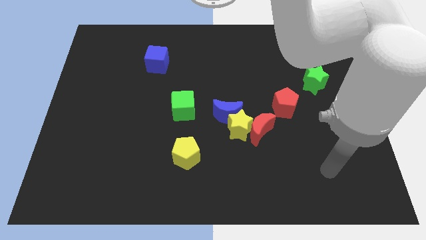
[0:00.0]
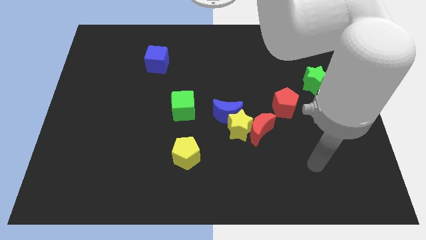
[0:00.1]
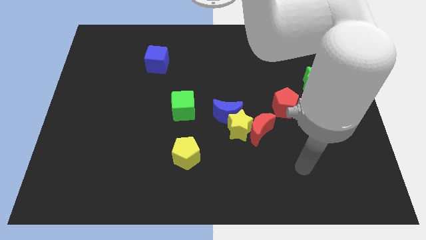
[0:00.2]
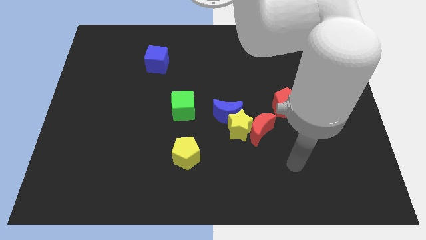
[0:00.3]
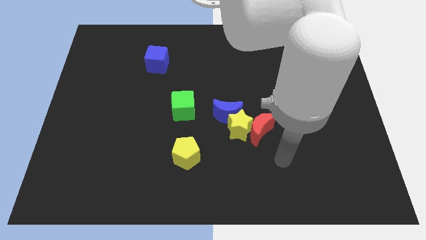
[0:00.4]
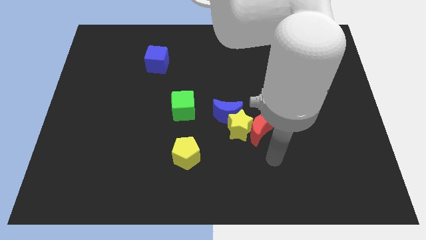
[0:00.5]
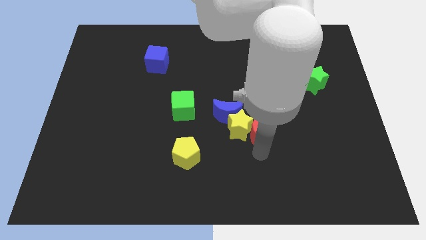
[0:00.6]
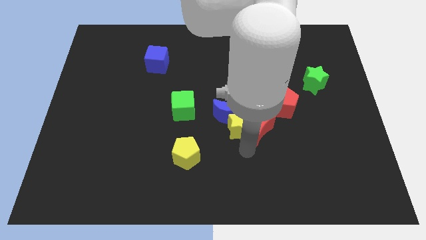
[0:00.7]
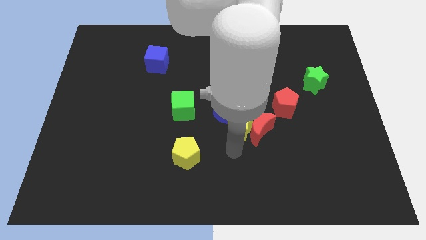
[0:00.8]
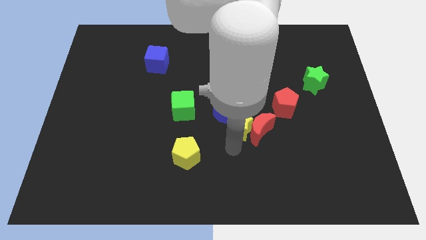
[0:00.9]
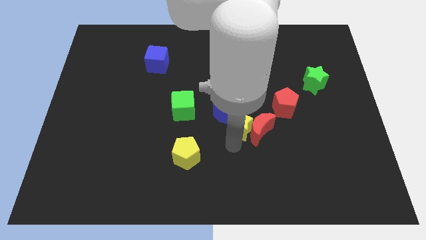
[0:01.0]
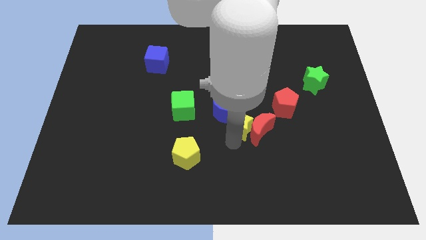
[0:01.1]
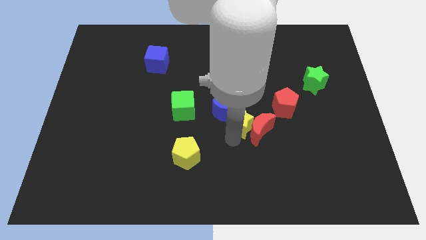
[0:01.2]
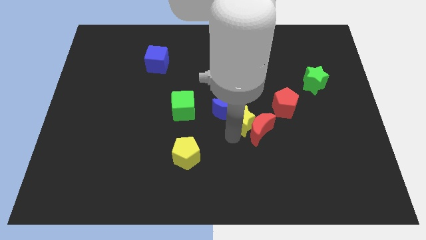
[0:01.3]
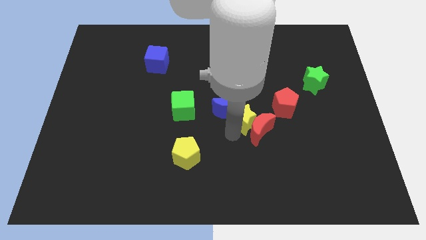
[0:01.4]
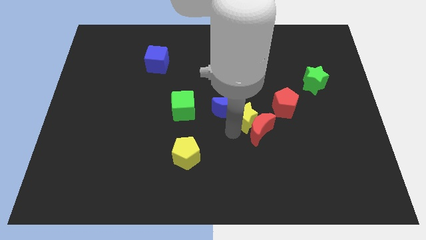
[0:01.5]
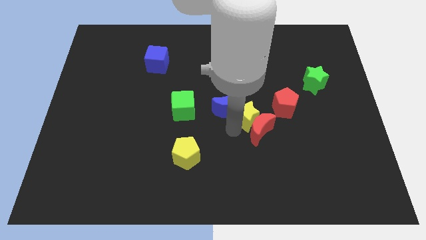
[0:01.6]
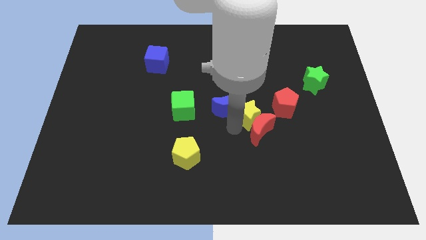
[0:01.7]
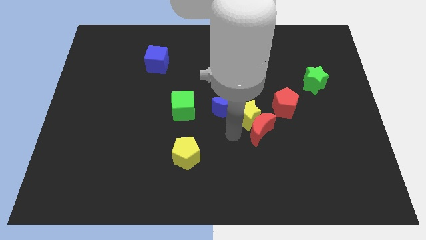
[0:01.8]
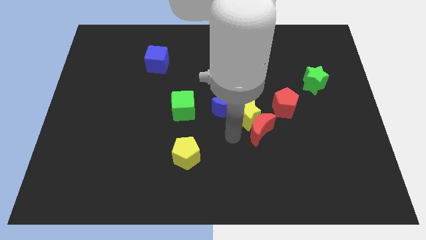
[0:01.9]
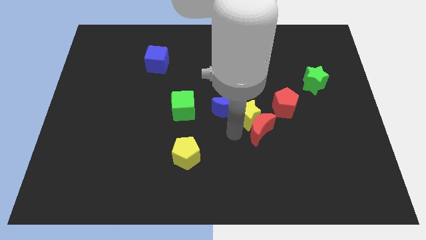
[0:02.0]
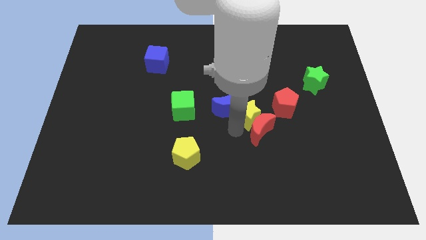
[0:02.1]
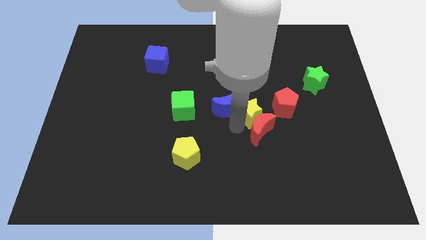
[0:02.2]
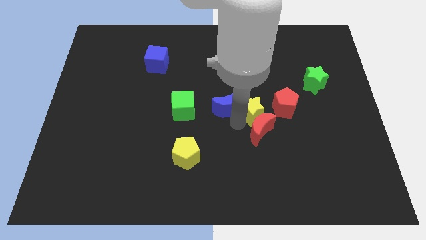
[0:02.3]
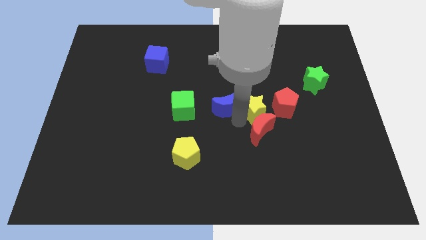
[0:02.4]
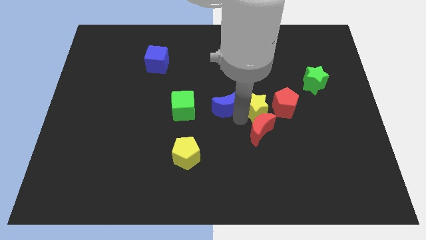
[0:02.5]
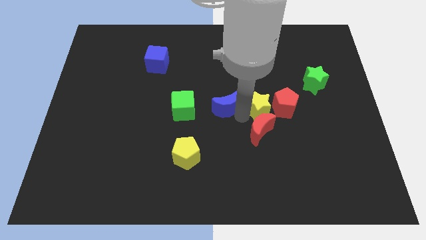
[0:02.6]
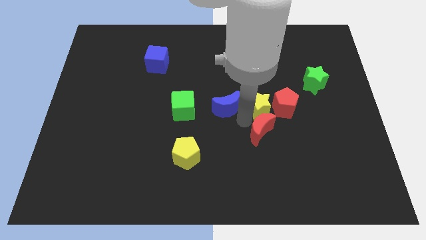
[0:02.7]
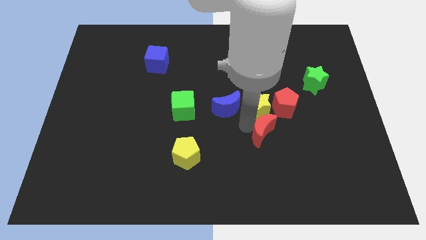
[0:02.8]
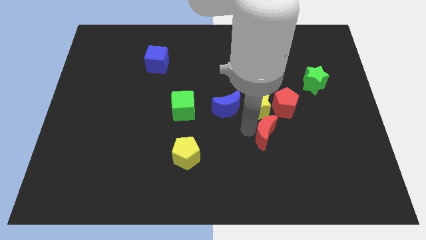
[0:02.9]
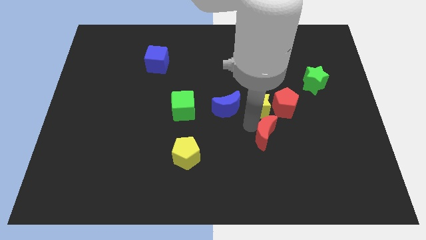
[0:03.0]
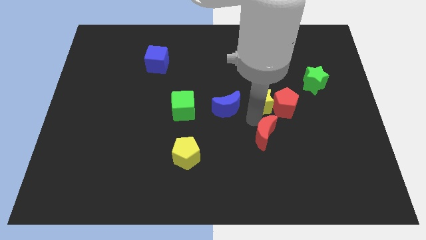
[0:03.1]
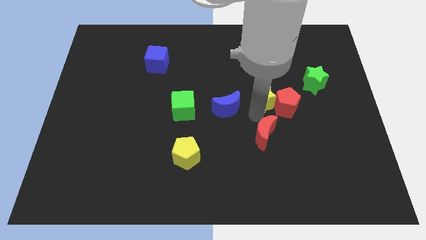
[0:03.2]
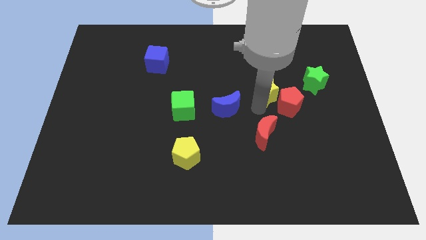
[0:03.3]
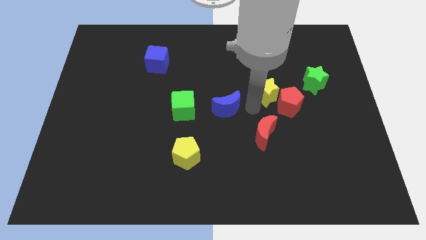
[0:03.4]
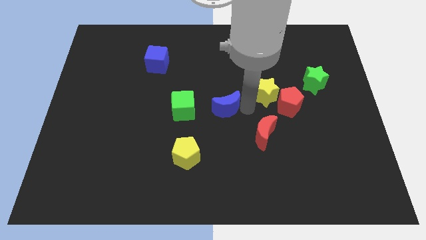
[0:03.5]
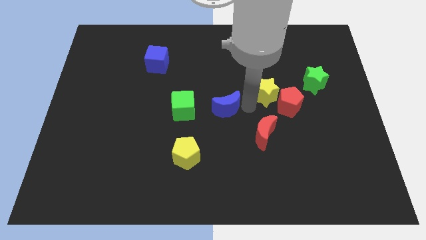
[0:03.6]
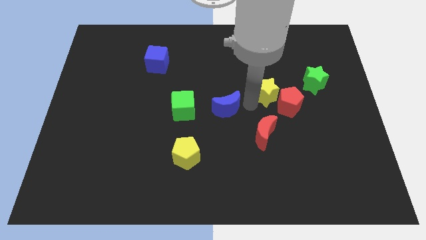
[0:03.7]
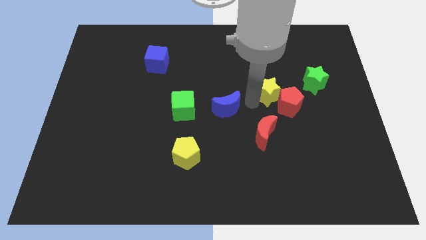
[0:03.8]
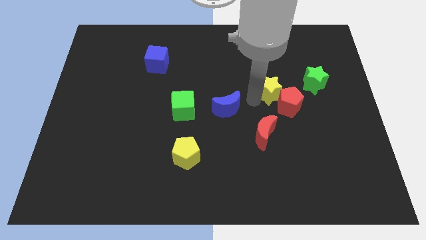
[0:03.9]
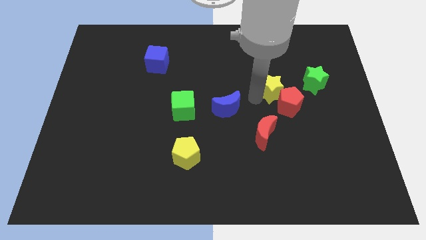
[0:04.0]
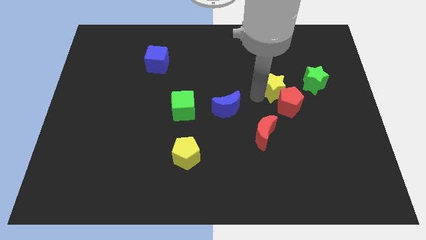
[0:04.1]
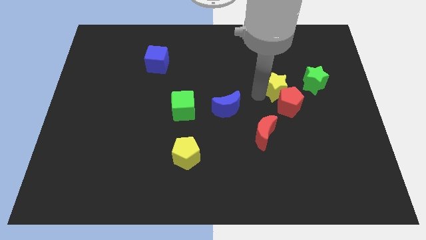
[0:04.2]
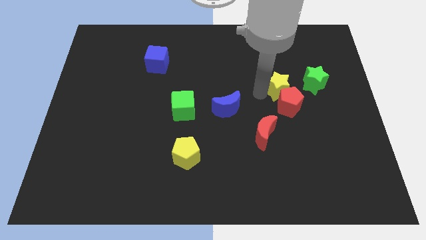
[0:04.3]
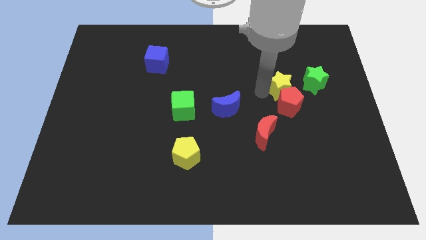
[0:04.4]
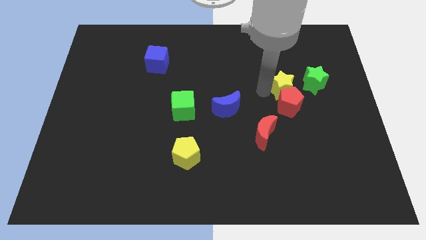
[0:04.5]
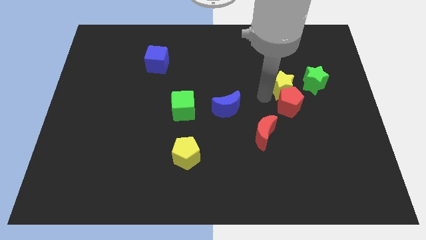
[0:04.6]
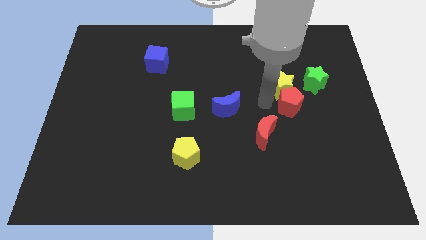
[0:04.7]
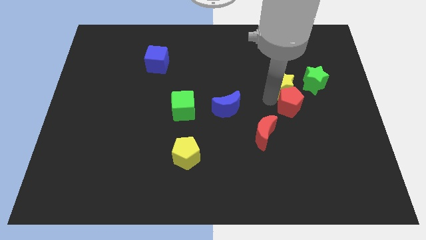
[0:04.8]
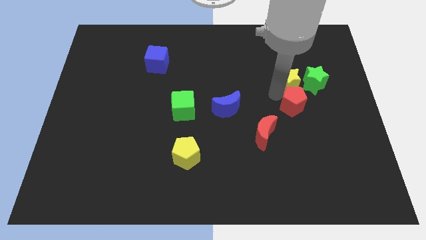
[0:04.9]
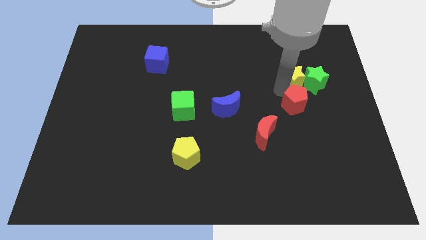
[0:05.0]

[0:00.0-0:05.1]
push the yellow star upwards and to the right

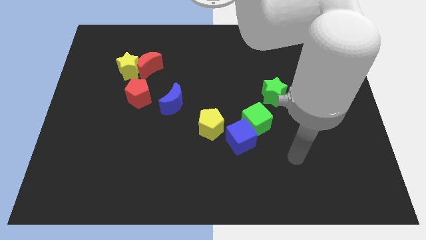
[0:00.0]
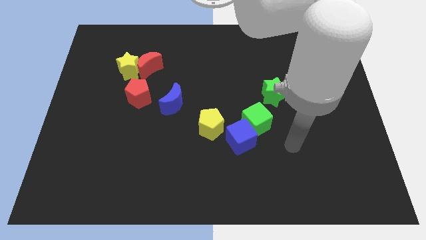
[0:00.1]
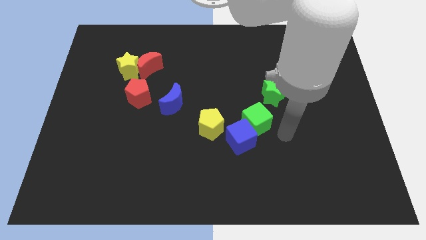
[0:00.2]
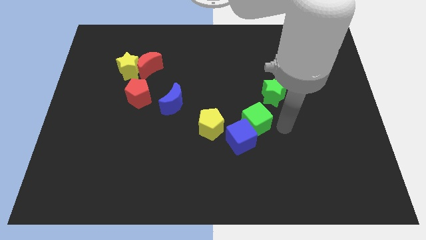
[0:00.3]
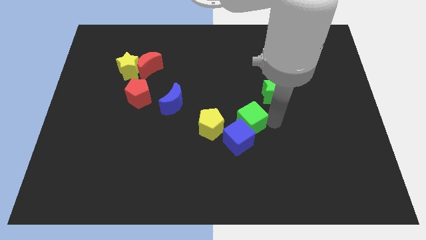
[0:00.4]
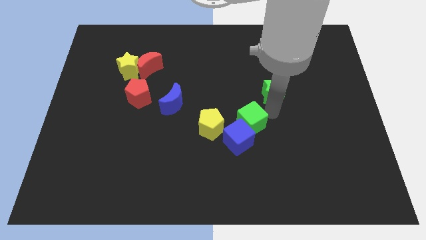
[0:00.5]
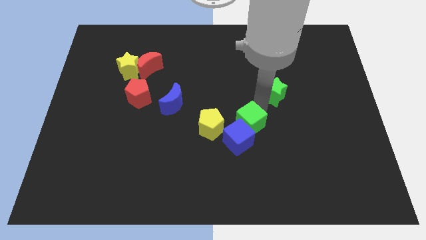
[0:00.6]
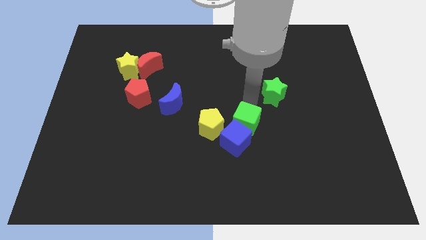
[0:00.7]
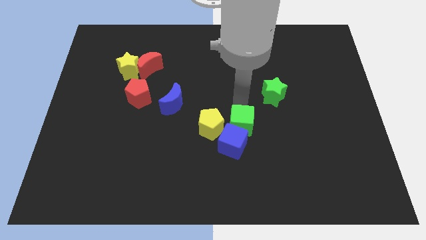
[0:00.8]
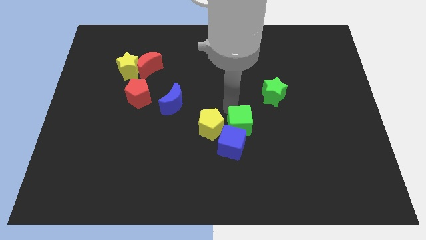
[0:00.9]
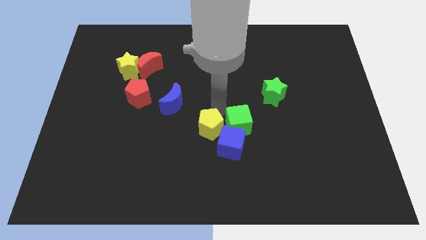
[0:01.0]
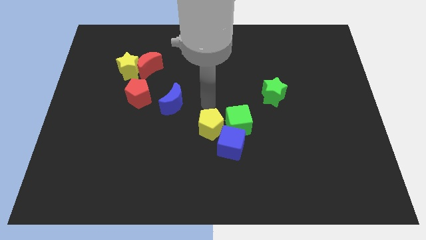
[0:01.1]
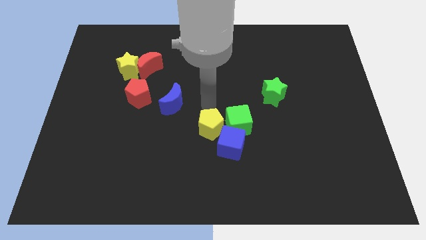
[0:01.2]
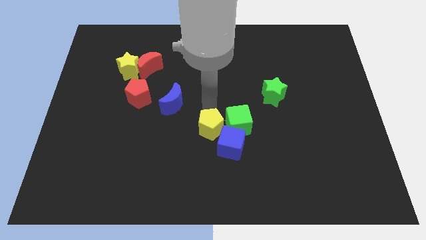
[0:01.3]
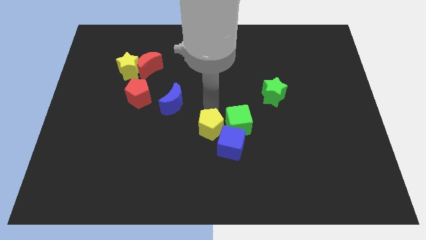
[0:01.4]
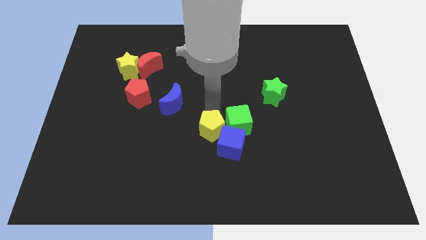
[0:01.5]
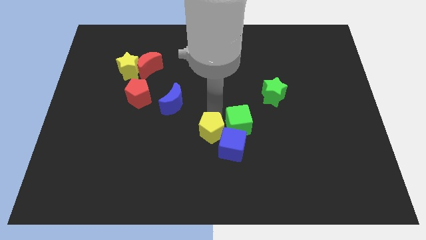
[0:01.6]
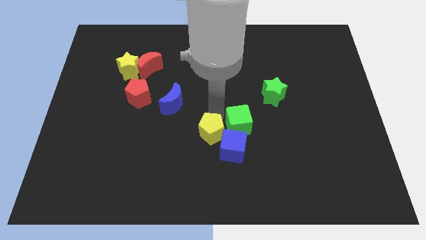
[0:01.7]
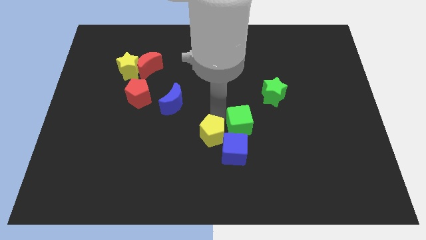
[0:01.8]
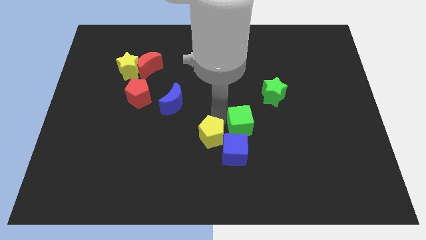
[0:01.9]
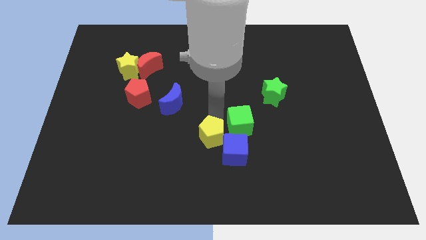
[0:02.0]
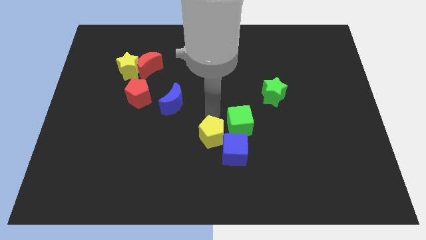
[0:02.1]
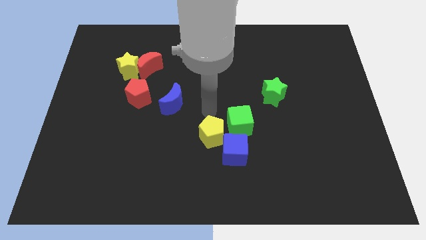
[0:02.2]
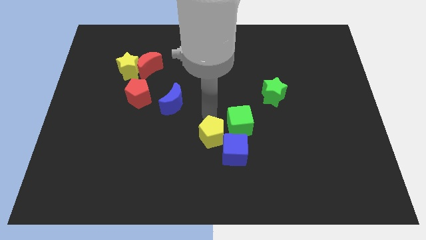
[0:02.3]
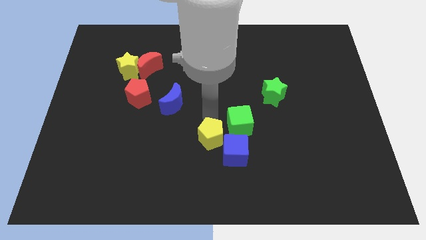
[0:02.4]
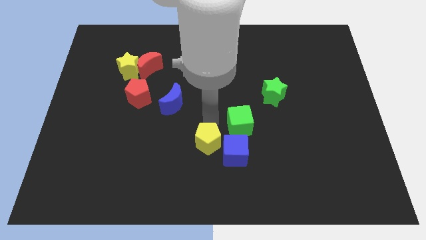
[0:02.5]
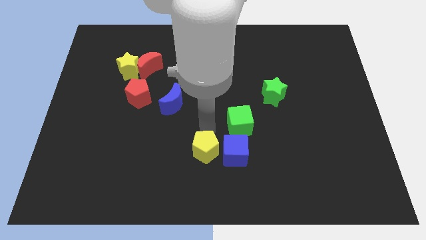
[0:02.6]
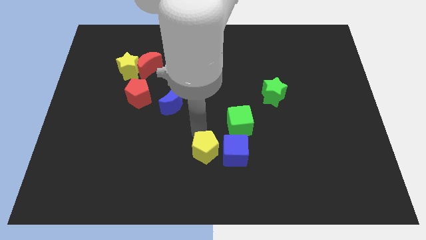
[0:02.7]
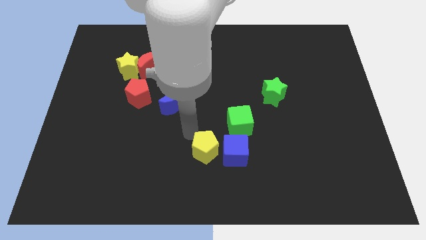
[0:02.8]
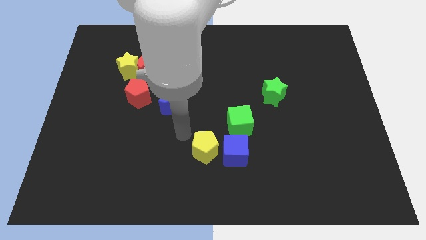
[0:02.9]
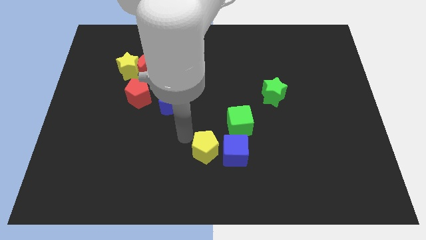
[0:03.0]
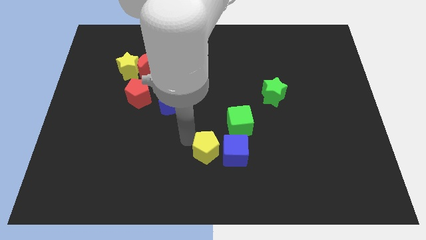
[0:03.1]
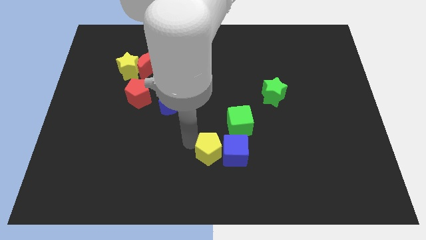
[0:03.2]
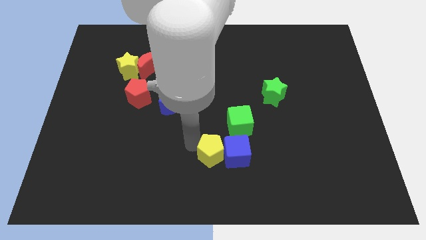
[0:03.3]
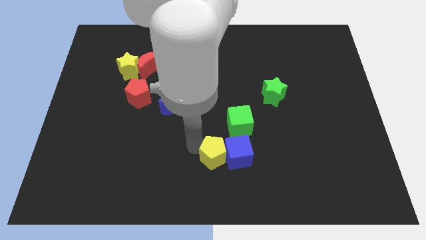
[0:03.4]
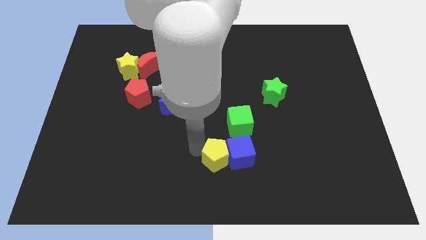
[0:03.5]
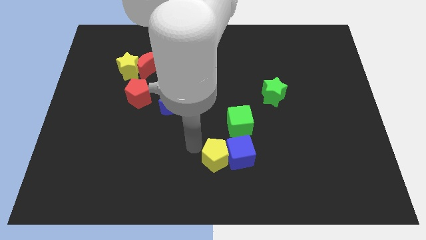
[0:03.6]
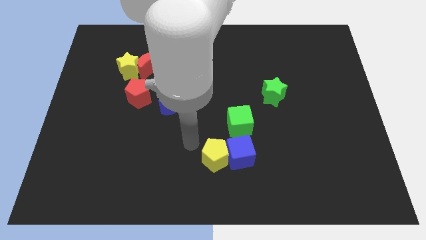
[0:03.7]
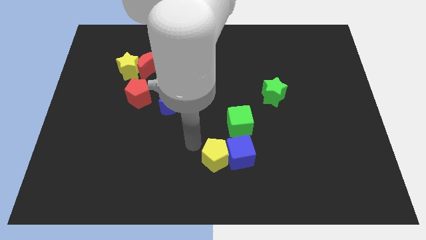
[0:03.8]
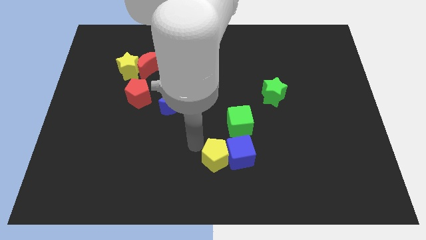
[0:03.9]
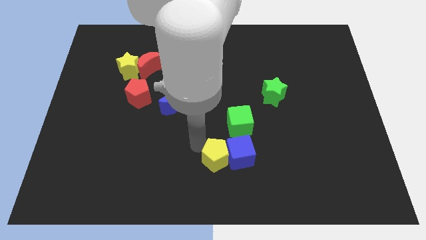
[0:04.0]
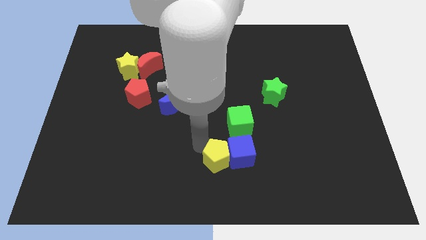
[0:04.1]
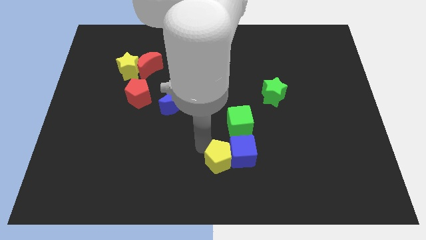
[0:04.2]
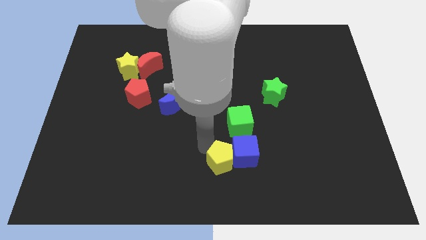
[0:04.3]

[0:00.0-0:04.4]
push the yellow pentagon somewhat down and right
